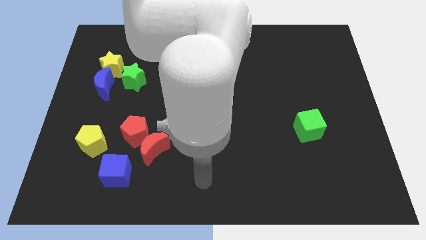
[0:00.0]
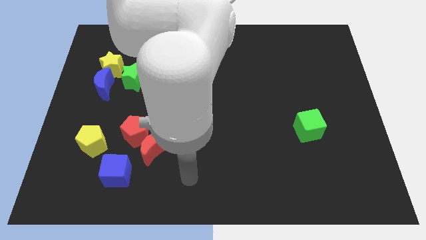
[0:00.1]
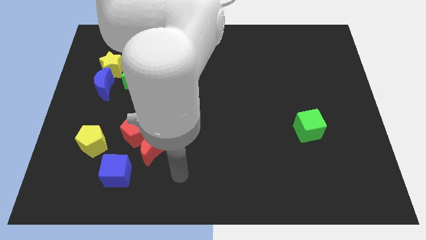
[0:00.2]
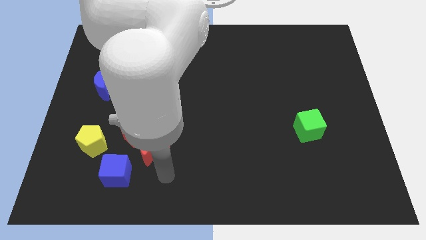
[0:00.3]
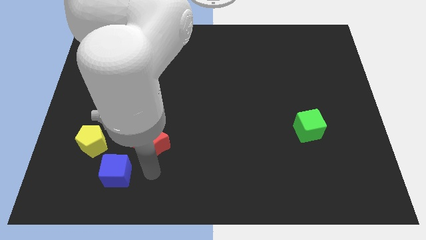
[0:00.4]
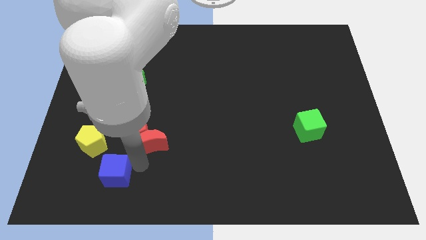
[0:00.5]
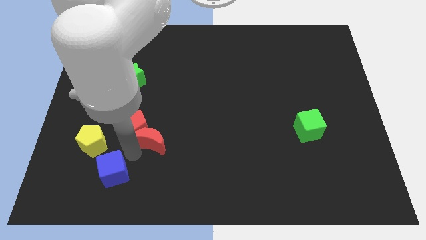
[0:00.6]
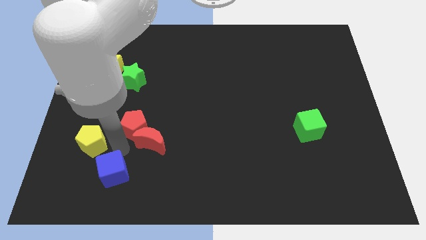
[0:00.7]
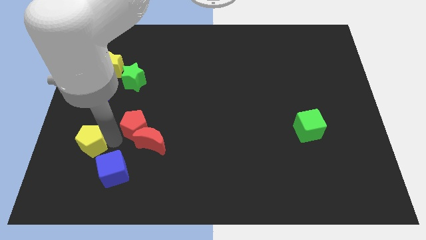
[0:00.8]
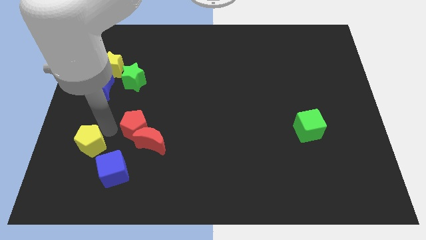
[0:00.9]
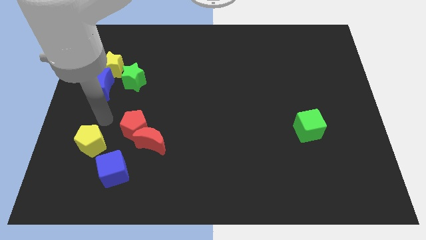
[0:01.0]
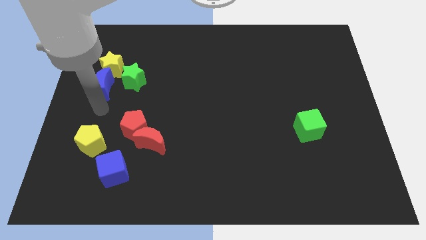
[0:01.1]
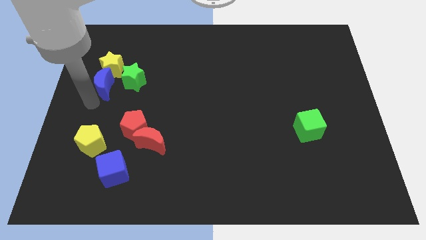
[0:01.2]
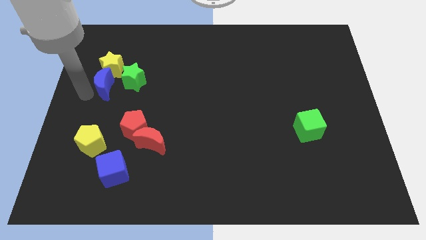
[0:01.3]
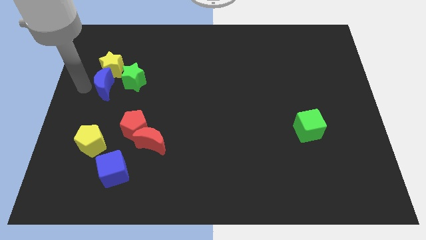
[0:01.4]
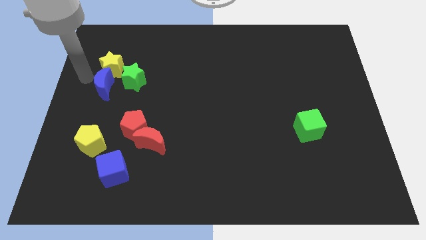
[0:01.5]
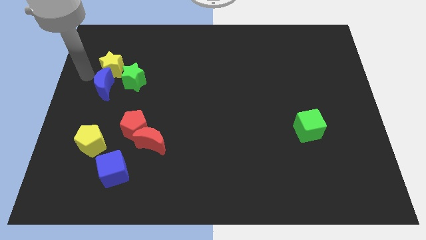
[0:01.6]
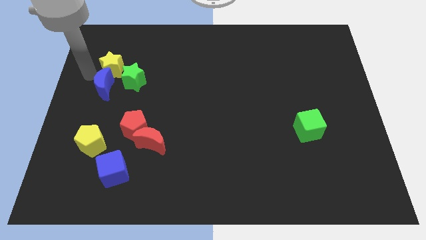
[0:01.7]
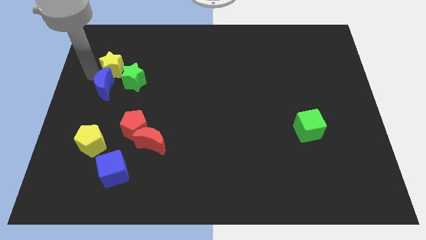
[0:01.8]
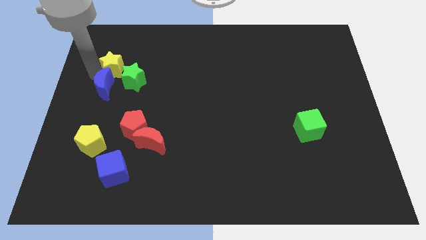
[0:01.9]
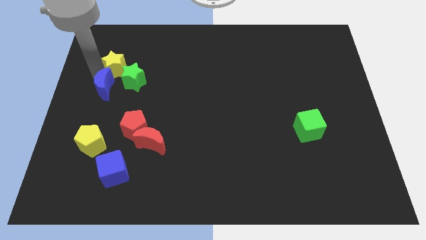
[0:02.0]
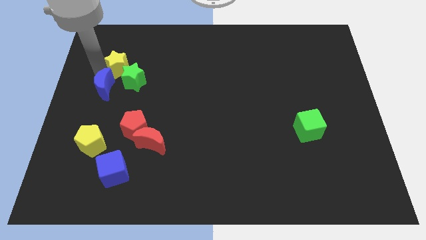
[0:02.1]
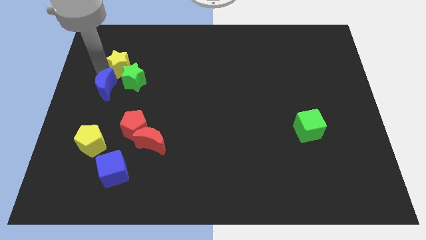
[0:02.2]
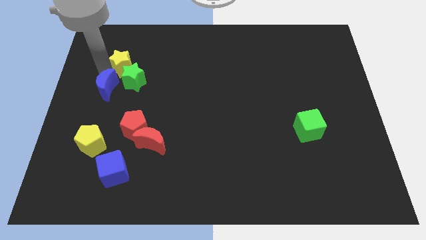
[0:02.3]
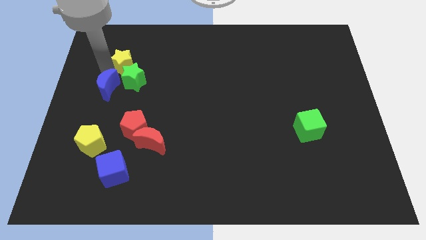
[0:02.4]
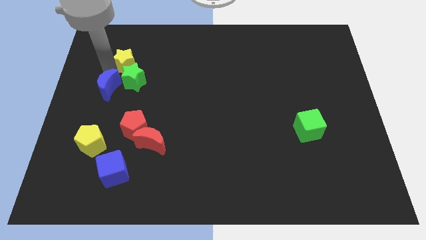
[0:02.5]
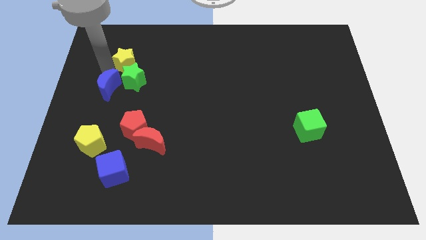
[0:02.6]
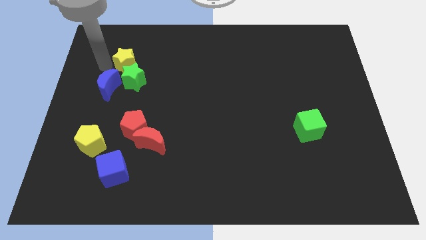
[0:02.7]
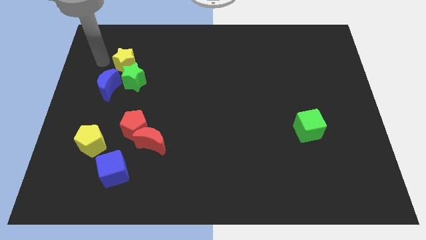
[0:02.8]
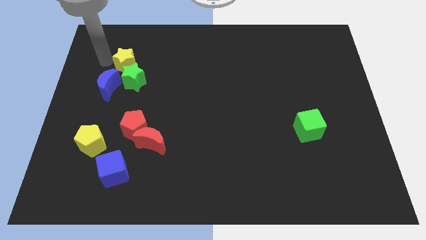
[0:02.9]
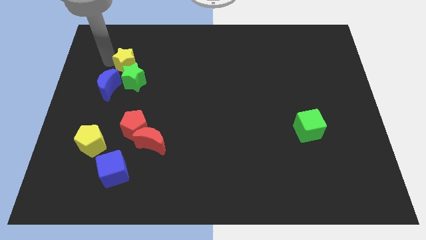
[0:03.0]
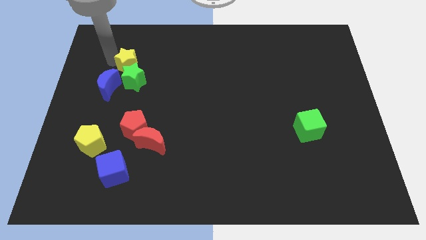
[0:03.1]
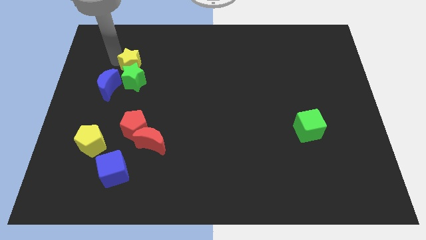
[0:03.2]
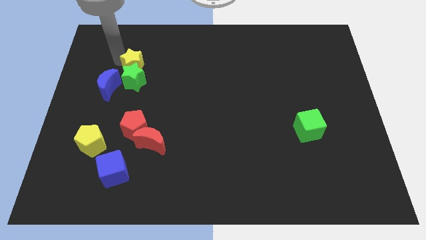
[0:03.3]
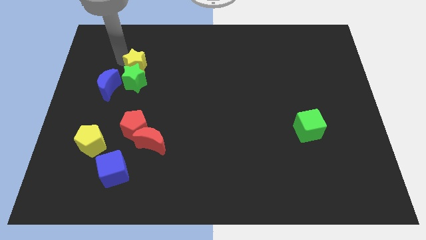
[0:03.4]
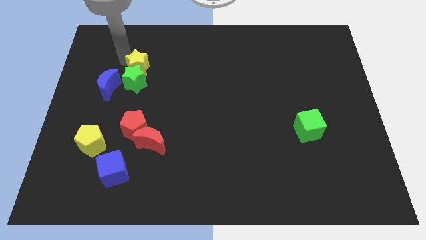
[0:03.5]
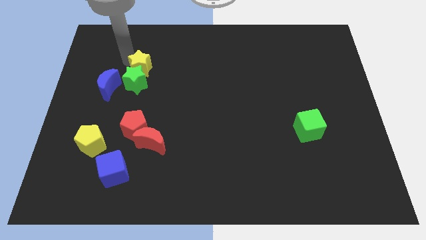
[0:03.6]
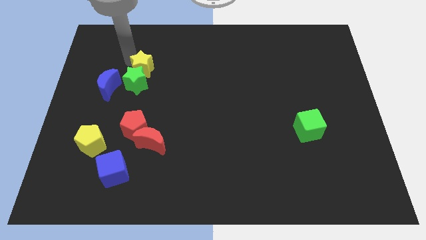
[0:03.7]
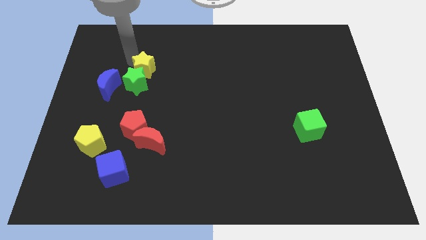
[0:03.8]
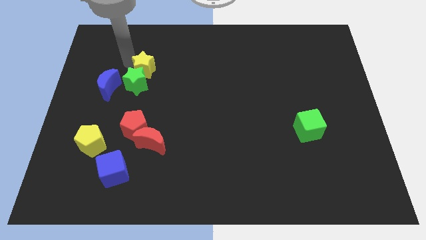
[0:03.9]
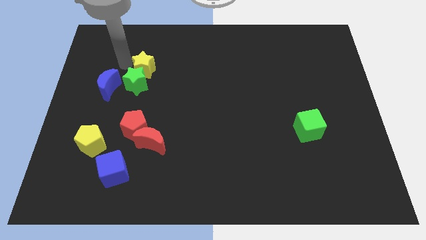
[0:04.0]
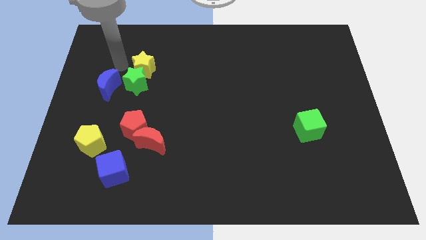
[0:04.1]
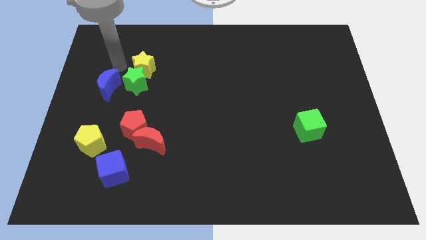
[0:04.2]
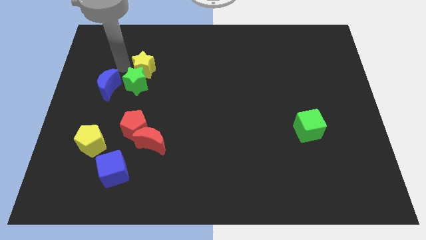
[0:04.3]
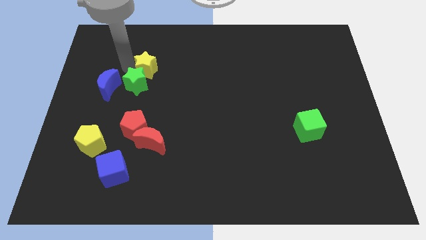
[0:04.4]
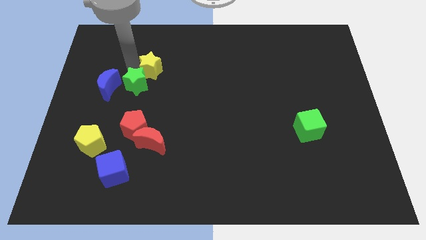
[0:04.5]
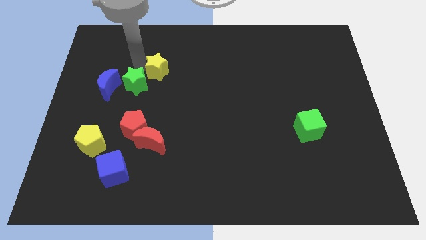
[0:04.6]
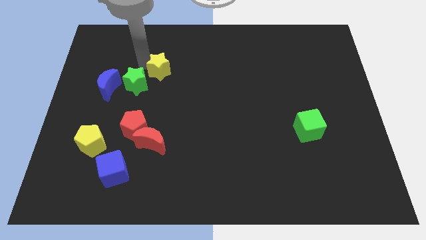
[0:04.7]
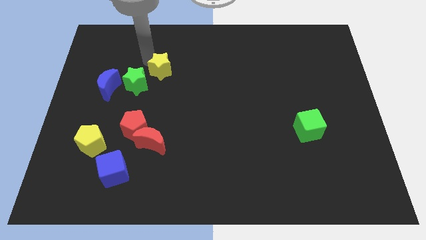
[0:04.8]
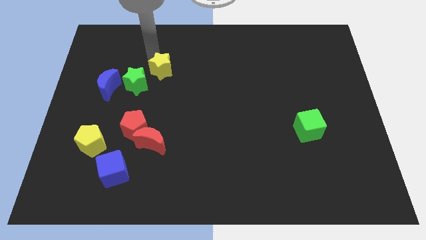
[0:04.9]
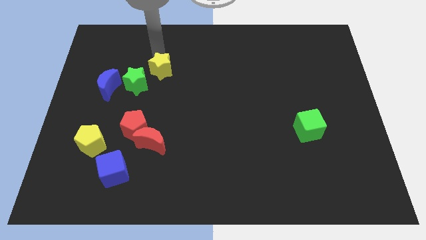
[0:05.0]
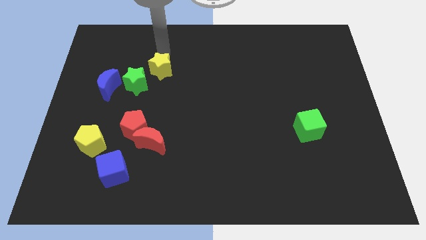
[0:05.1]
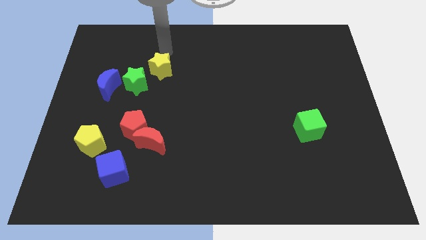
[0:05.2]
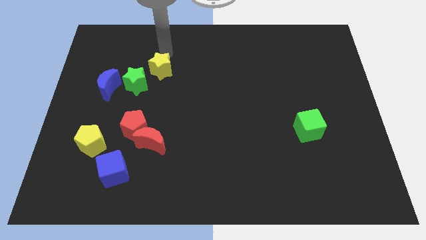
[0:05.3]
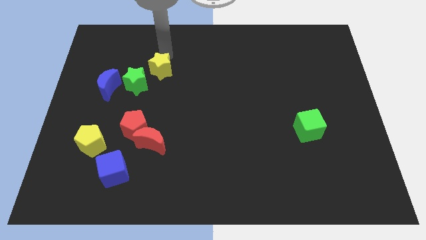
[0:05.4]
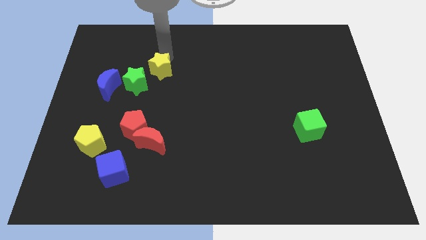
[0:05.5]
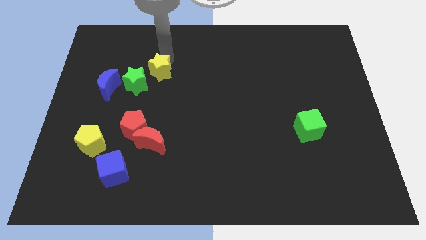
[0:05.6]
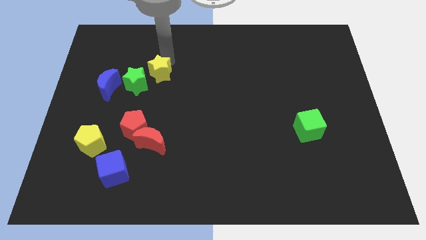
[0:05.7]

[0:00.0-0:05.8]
slide the yellow star downwards and then right slightly

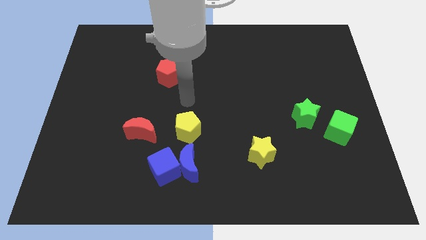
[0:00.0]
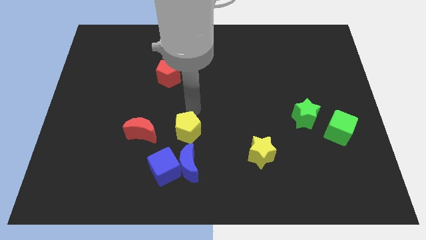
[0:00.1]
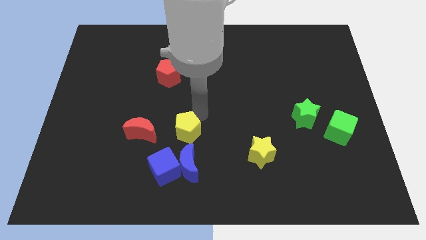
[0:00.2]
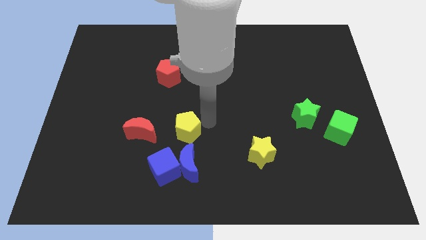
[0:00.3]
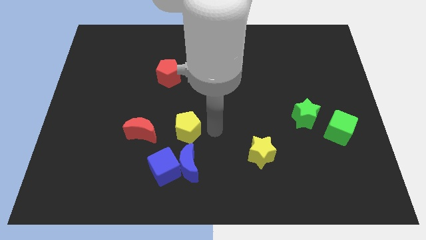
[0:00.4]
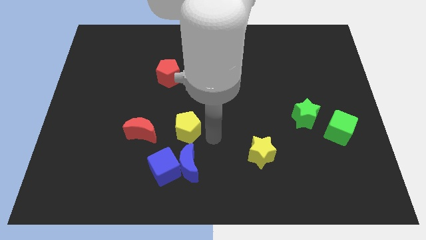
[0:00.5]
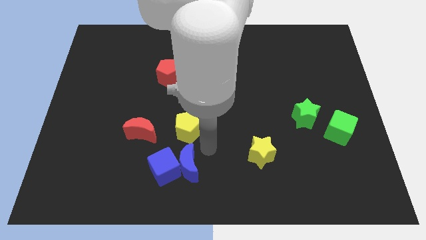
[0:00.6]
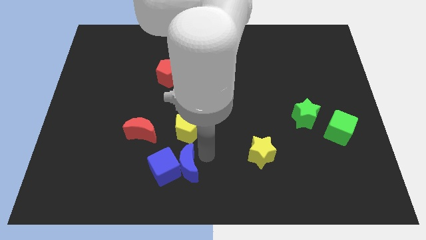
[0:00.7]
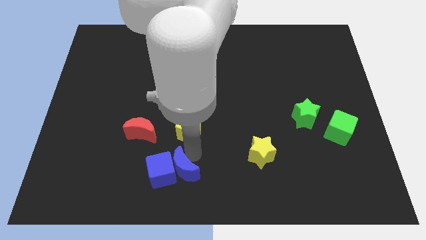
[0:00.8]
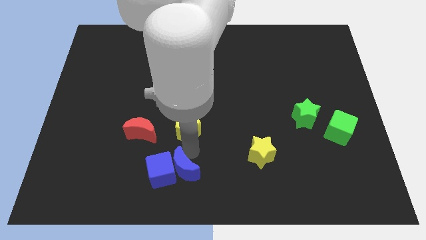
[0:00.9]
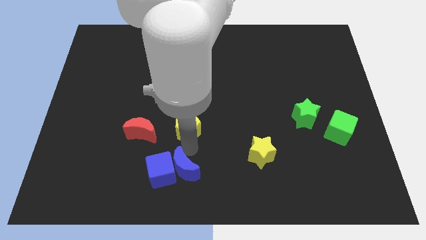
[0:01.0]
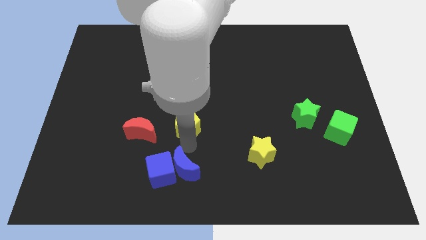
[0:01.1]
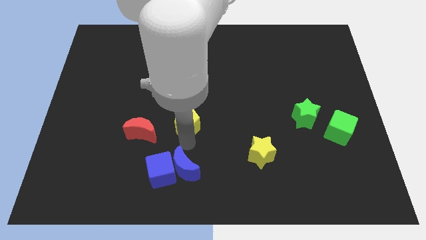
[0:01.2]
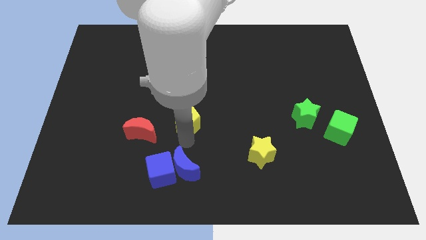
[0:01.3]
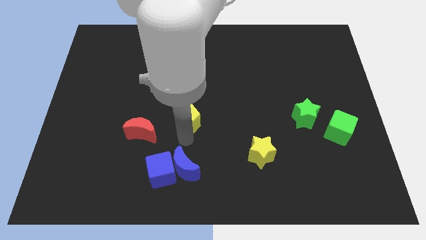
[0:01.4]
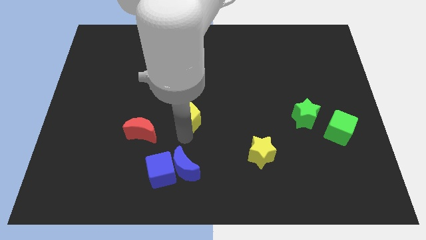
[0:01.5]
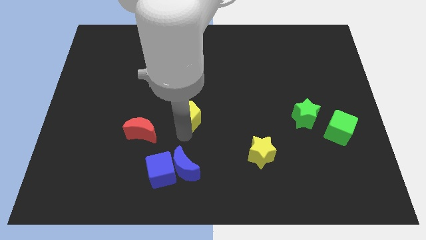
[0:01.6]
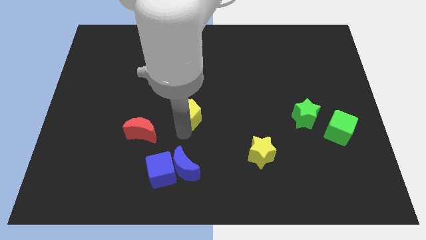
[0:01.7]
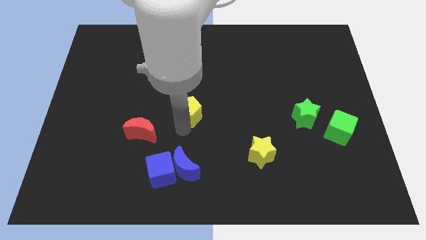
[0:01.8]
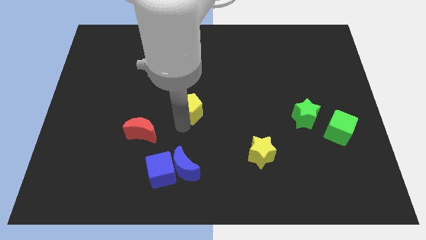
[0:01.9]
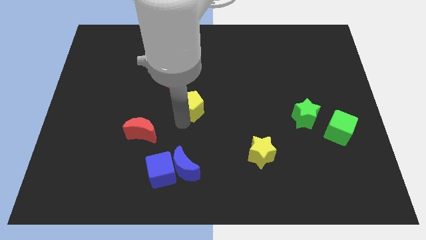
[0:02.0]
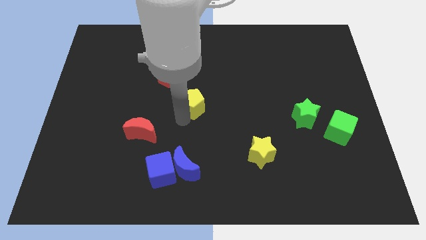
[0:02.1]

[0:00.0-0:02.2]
slide the yellow pentagon up a little bit
